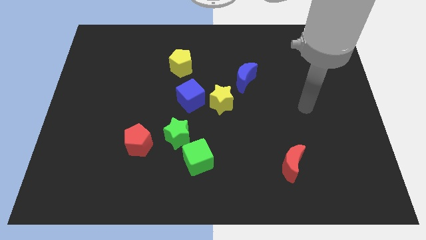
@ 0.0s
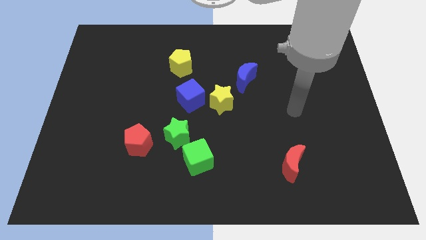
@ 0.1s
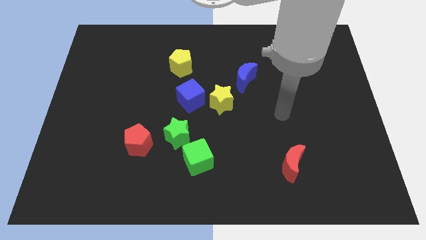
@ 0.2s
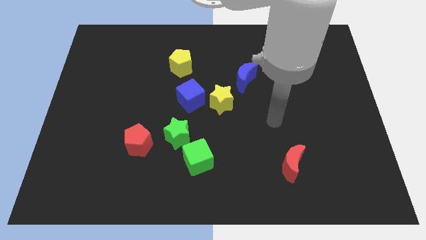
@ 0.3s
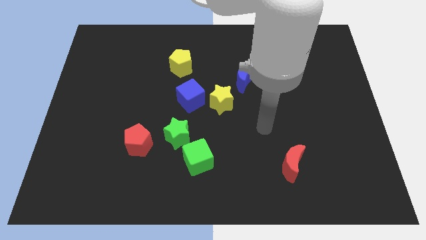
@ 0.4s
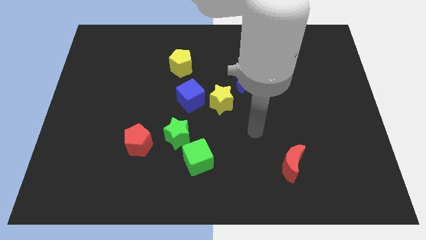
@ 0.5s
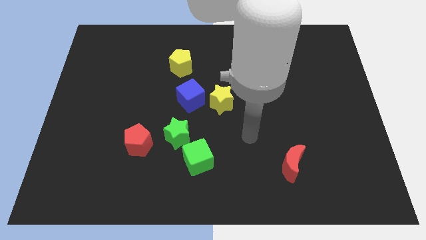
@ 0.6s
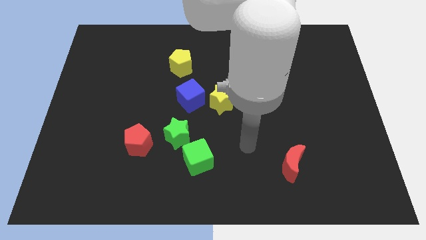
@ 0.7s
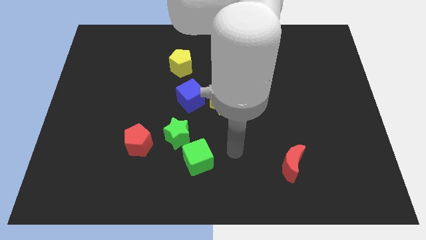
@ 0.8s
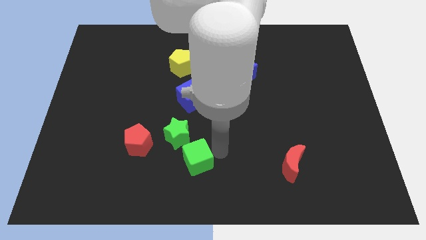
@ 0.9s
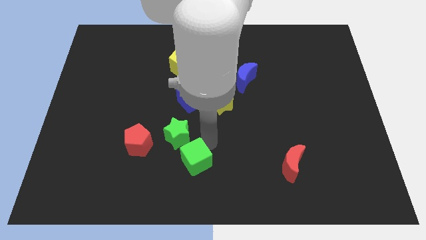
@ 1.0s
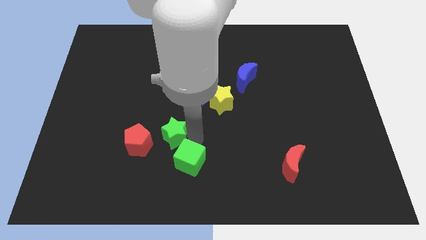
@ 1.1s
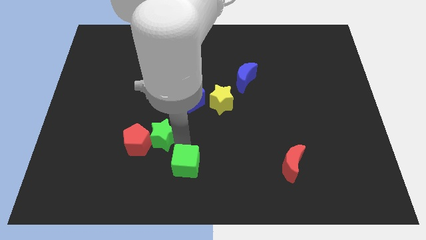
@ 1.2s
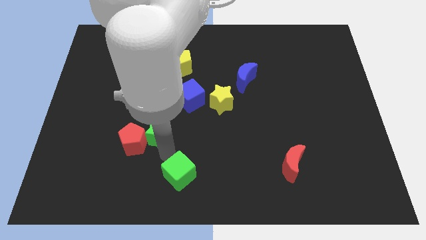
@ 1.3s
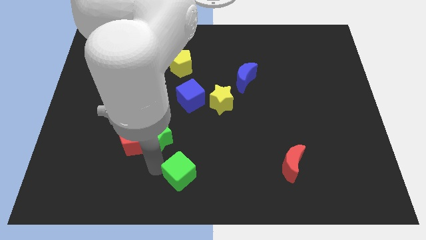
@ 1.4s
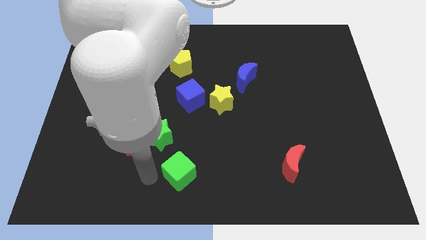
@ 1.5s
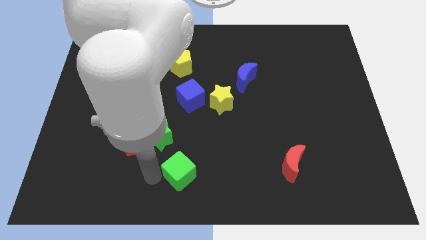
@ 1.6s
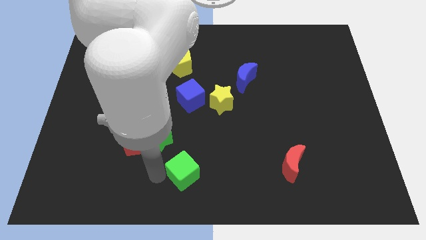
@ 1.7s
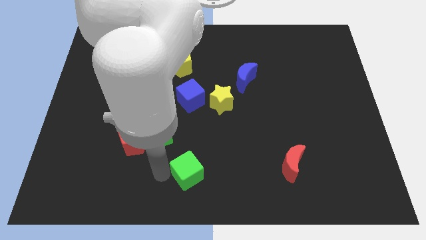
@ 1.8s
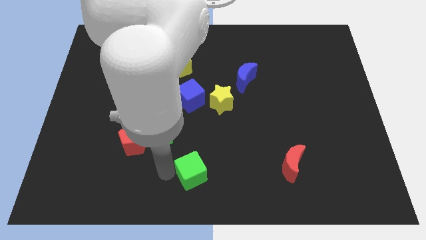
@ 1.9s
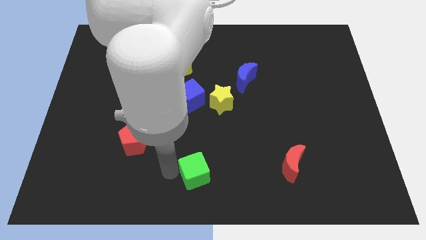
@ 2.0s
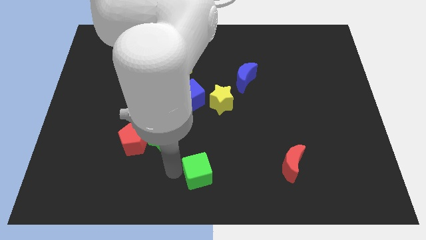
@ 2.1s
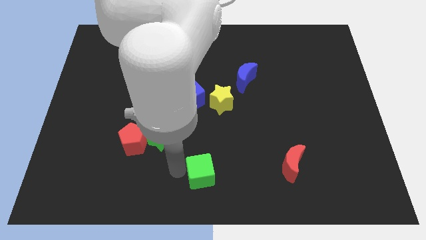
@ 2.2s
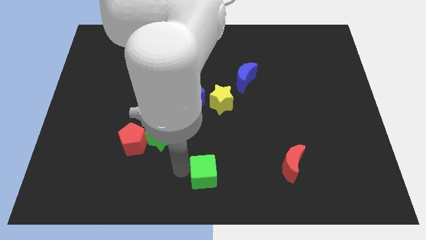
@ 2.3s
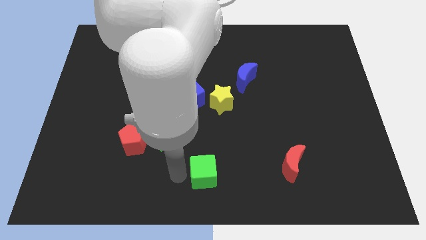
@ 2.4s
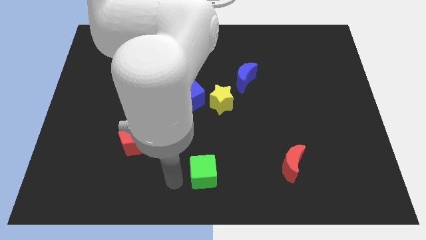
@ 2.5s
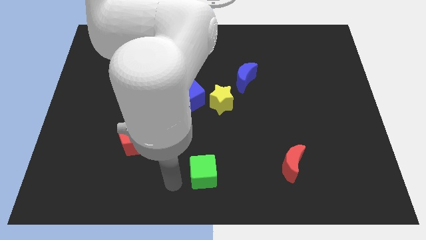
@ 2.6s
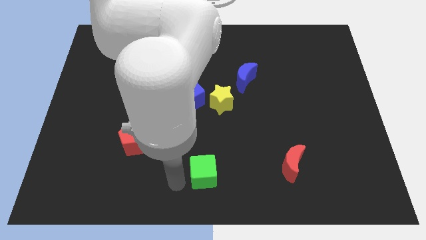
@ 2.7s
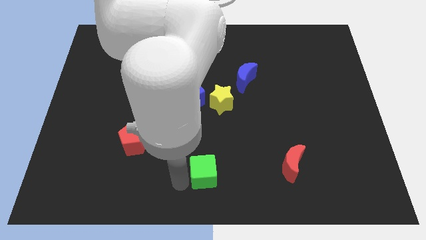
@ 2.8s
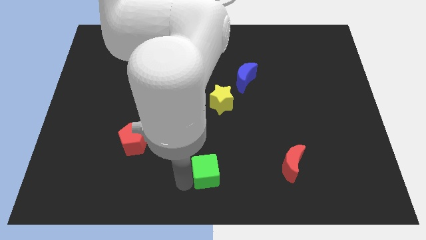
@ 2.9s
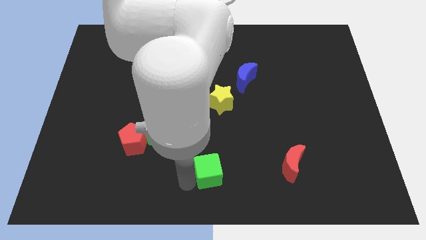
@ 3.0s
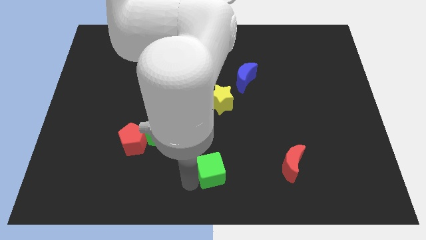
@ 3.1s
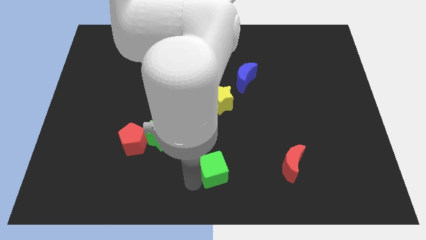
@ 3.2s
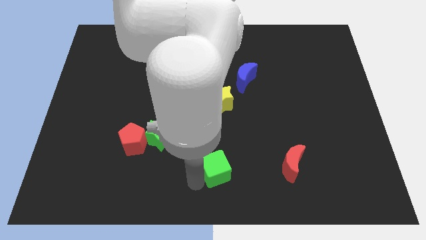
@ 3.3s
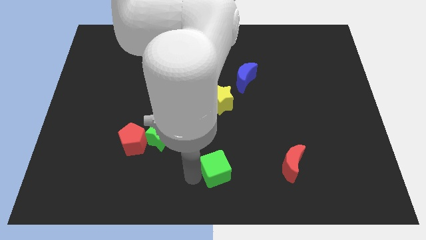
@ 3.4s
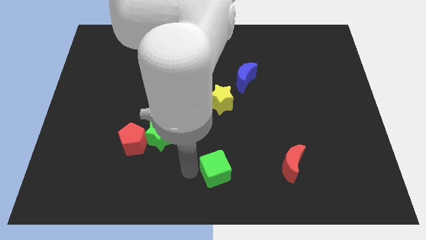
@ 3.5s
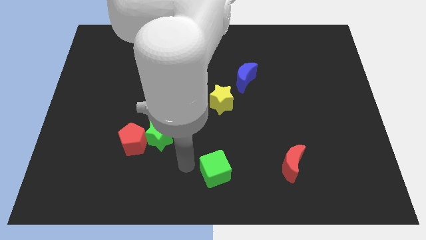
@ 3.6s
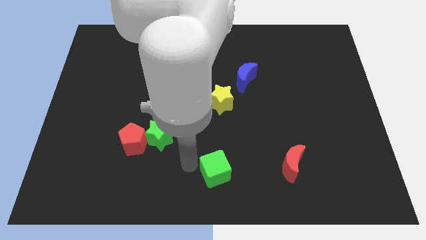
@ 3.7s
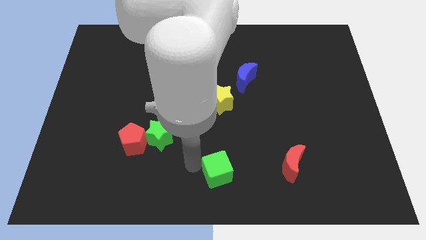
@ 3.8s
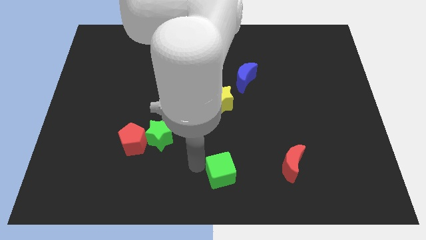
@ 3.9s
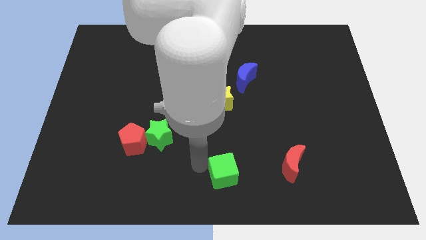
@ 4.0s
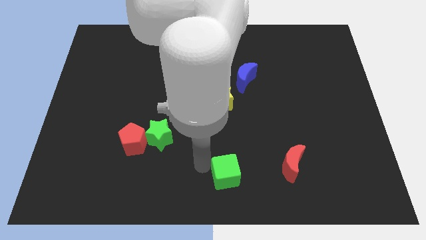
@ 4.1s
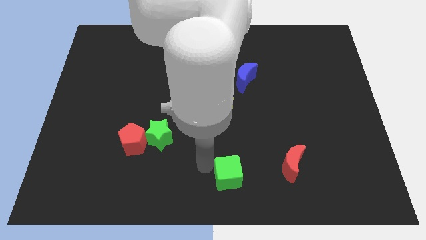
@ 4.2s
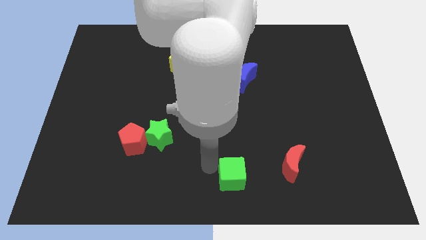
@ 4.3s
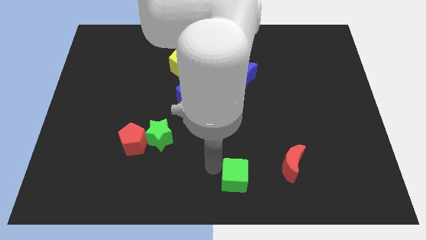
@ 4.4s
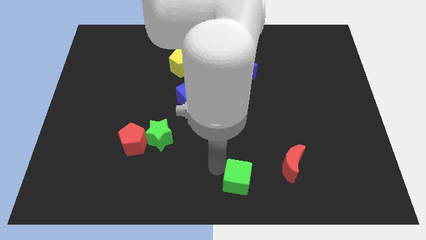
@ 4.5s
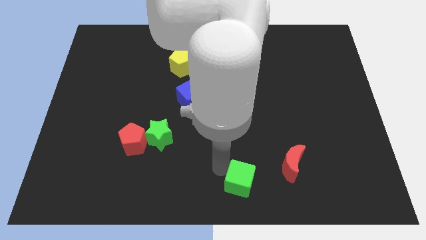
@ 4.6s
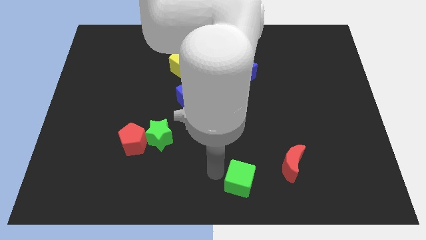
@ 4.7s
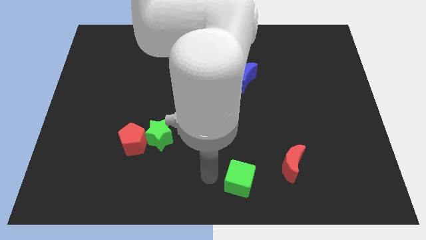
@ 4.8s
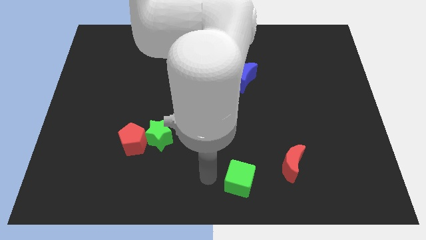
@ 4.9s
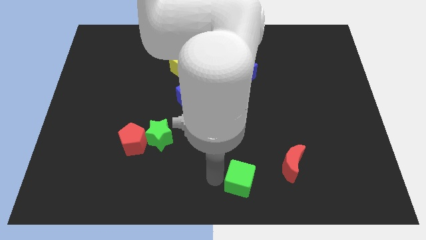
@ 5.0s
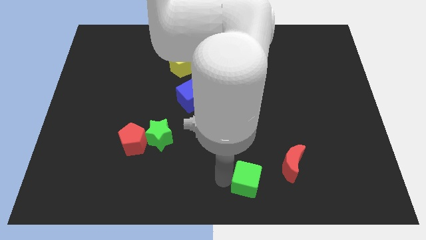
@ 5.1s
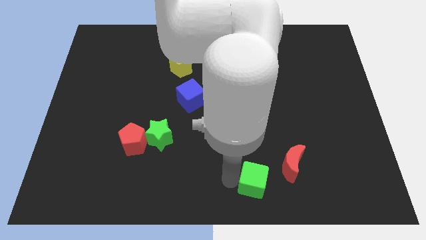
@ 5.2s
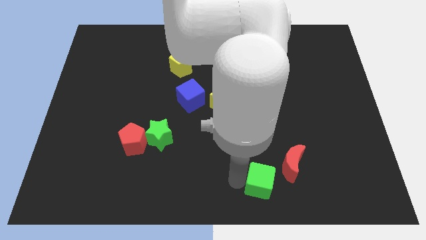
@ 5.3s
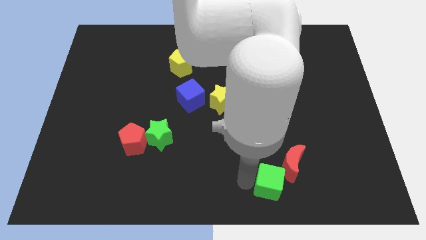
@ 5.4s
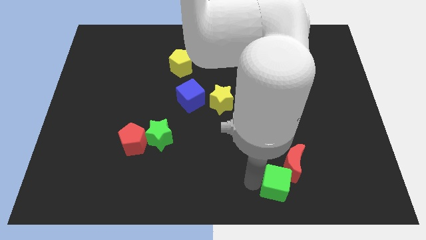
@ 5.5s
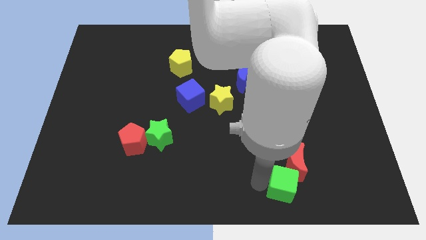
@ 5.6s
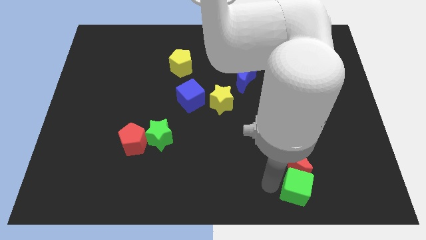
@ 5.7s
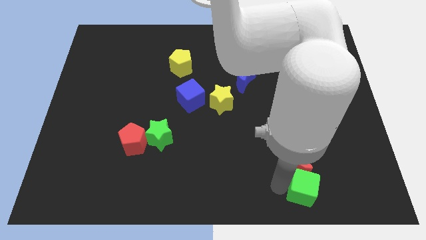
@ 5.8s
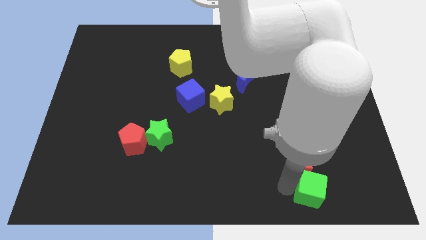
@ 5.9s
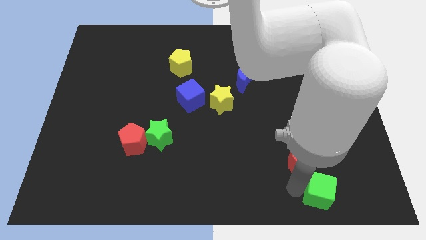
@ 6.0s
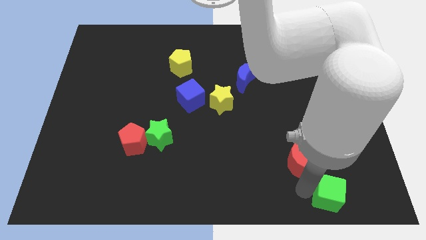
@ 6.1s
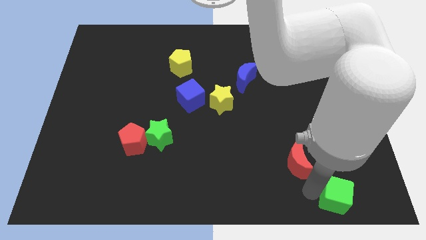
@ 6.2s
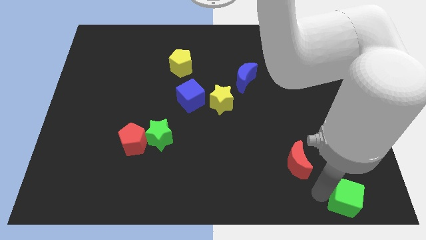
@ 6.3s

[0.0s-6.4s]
put the green cube to the bottom right of the board
